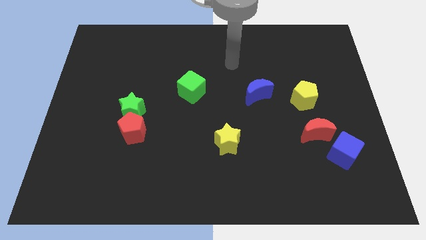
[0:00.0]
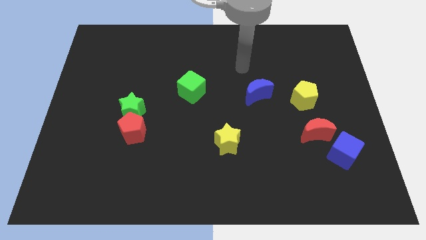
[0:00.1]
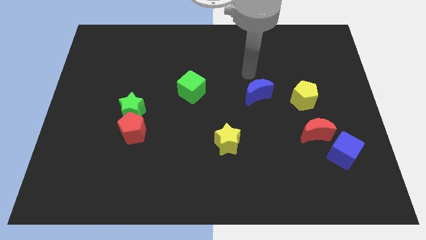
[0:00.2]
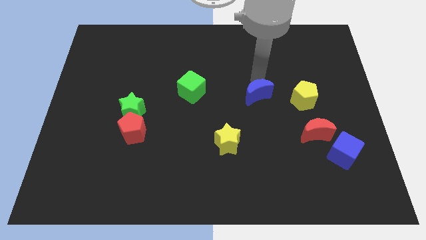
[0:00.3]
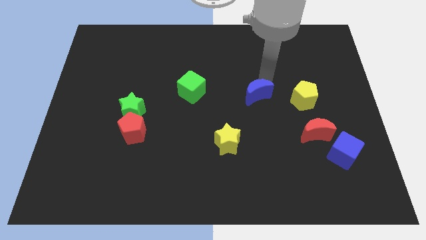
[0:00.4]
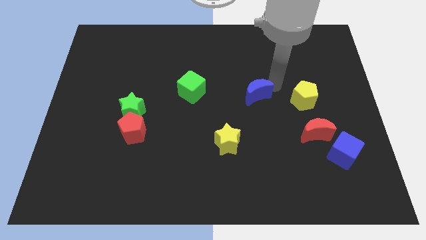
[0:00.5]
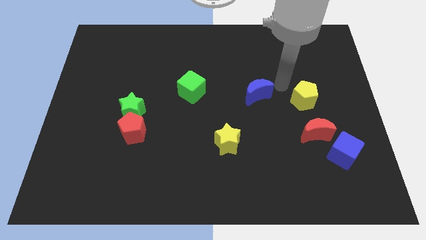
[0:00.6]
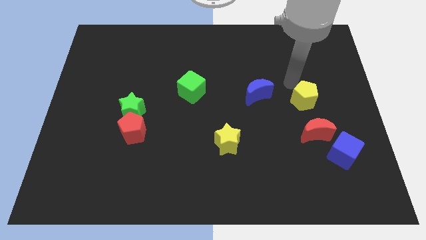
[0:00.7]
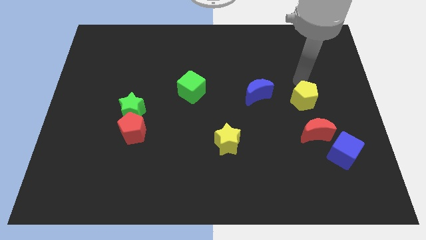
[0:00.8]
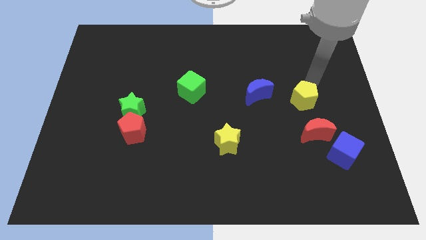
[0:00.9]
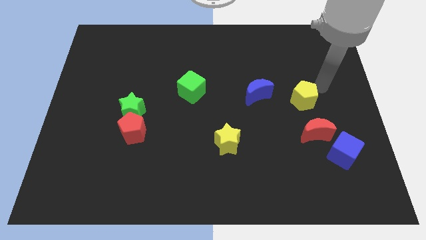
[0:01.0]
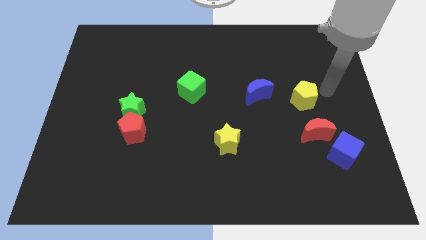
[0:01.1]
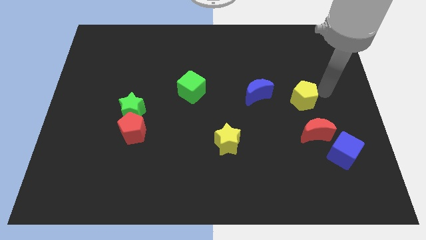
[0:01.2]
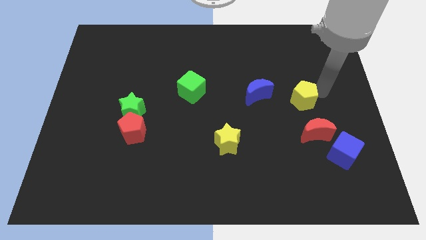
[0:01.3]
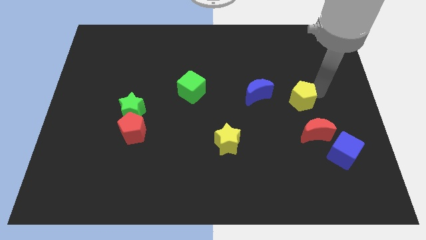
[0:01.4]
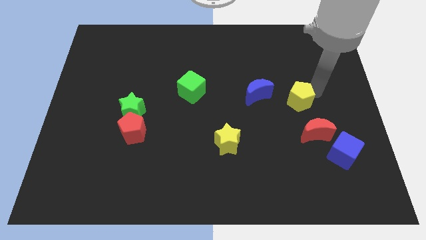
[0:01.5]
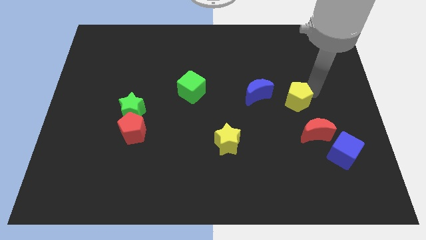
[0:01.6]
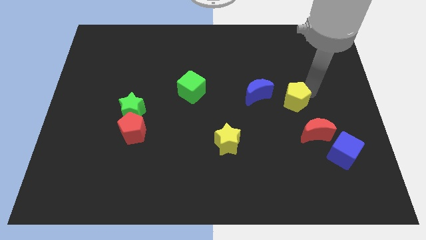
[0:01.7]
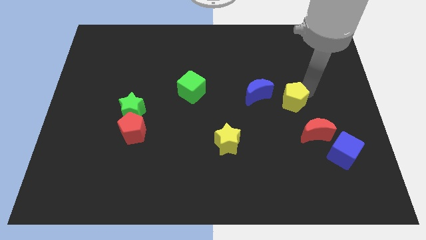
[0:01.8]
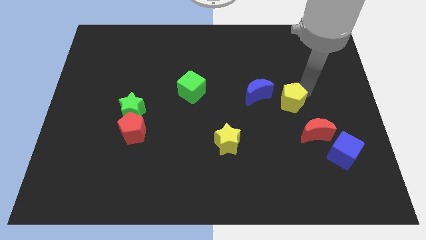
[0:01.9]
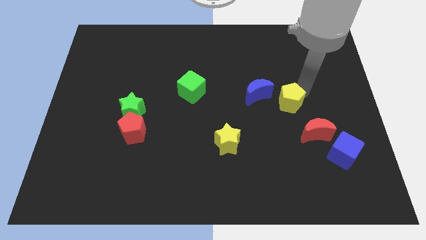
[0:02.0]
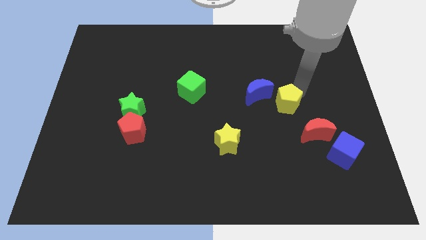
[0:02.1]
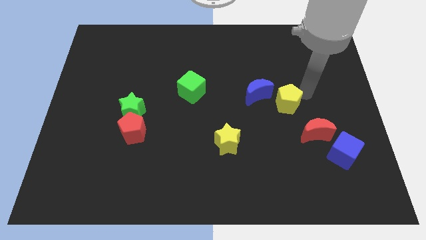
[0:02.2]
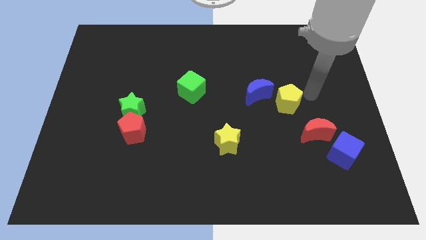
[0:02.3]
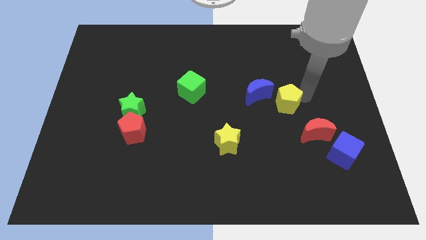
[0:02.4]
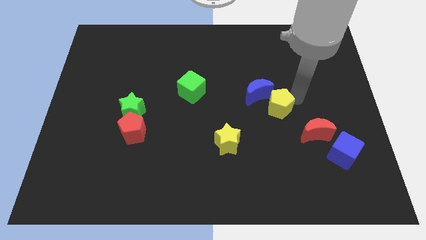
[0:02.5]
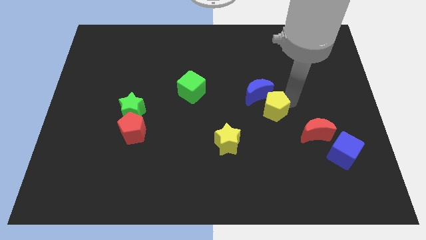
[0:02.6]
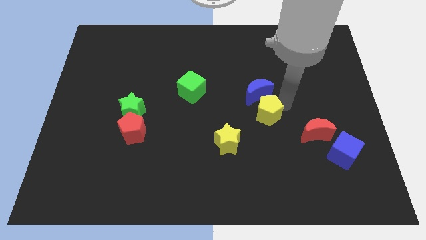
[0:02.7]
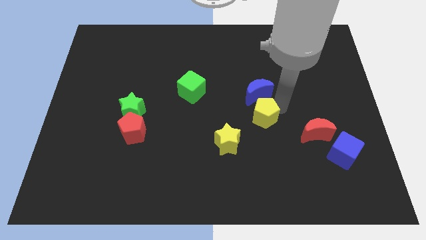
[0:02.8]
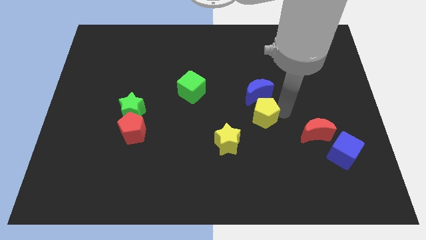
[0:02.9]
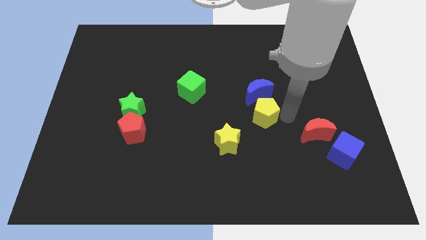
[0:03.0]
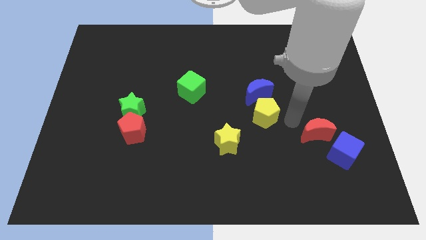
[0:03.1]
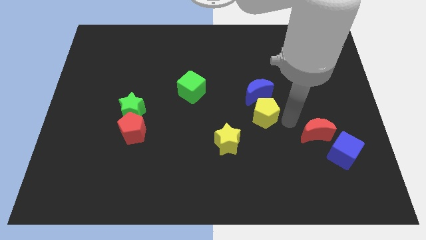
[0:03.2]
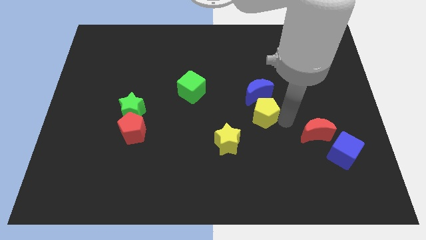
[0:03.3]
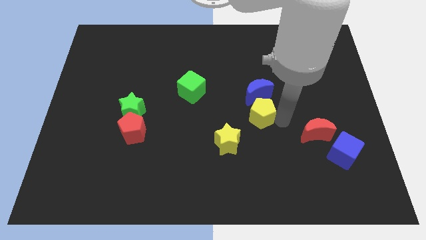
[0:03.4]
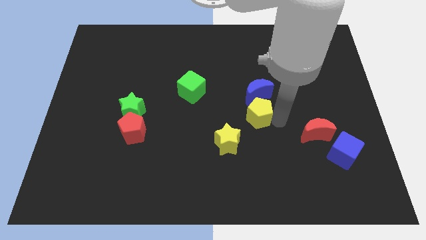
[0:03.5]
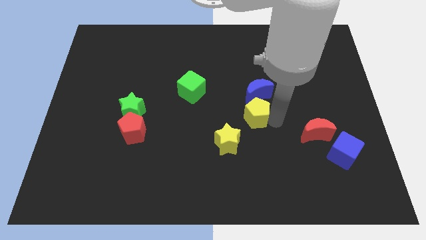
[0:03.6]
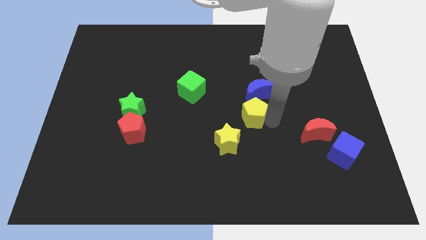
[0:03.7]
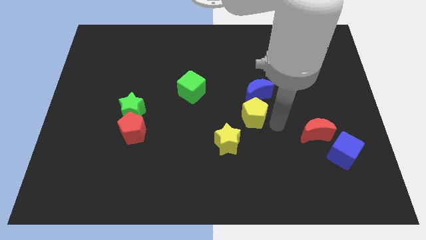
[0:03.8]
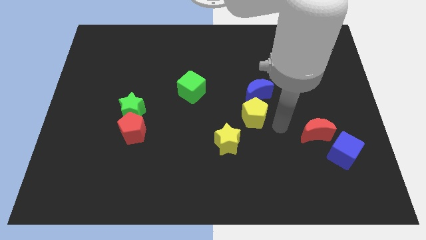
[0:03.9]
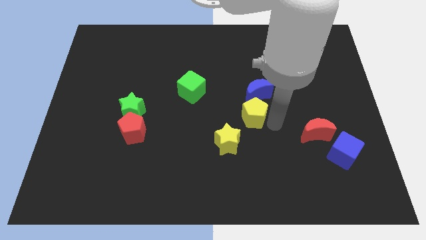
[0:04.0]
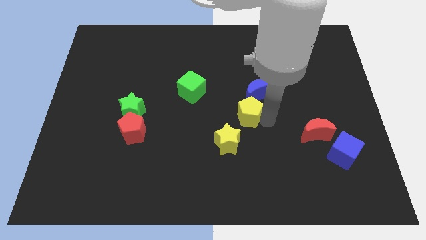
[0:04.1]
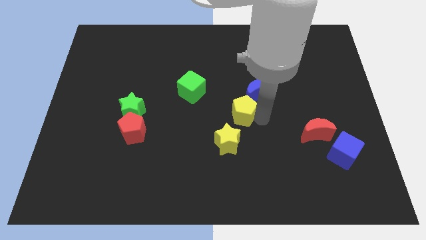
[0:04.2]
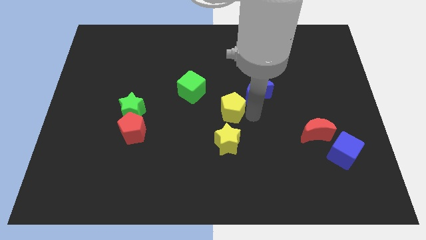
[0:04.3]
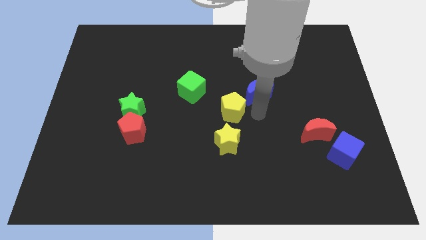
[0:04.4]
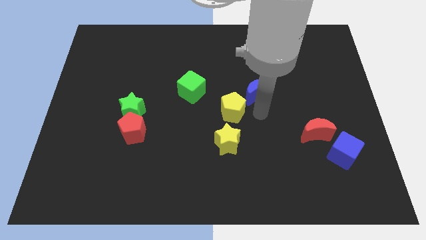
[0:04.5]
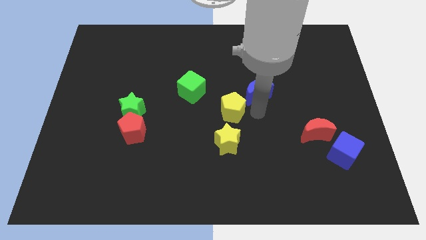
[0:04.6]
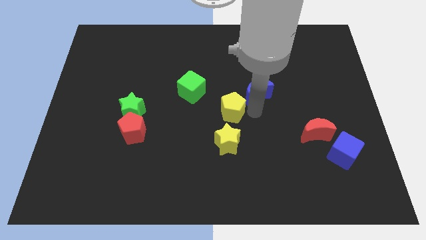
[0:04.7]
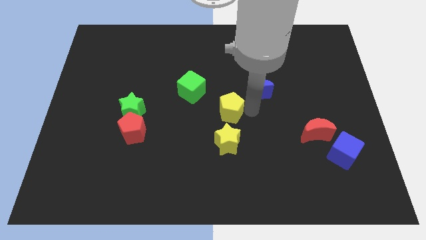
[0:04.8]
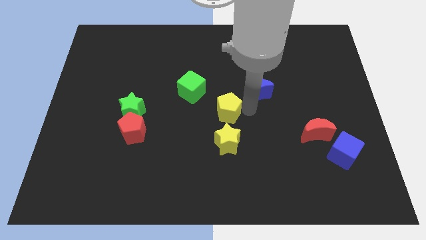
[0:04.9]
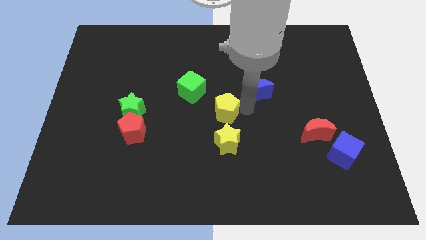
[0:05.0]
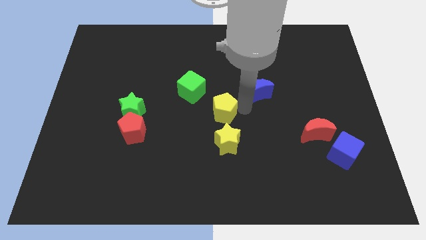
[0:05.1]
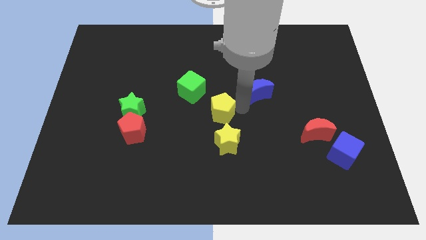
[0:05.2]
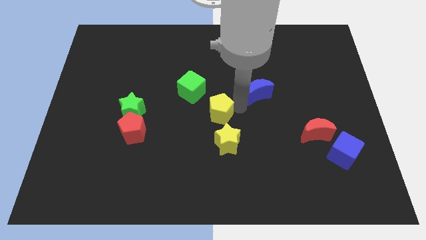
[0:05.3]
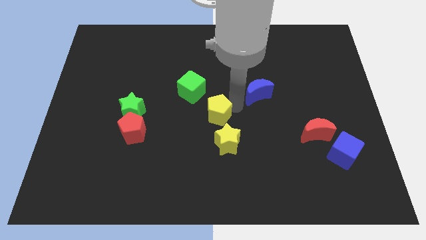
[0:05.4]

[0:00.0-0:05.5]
move the yellow pentagon left

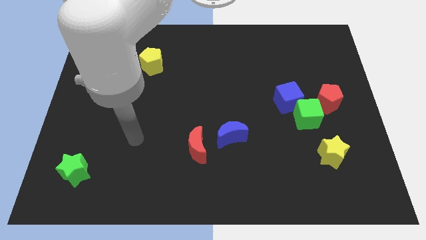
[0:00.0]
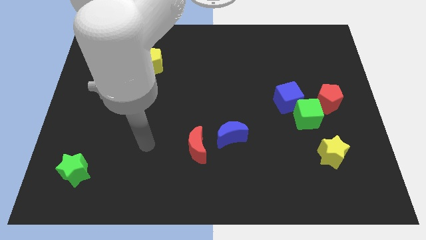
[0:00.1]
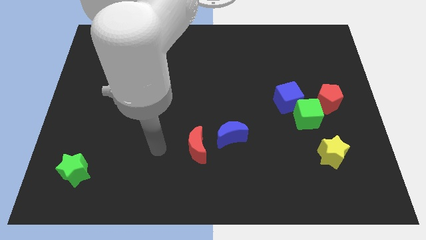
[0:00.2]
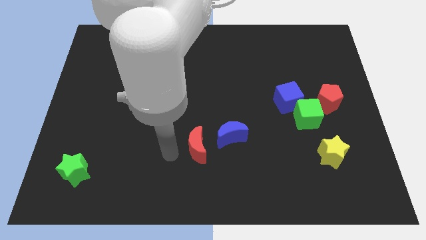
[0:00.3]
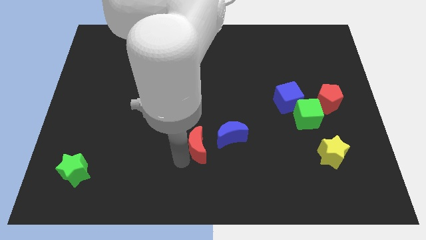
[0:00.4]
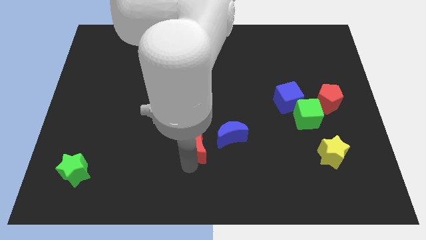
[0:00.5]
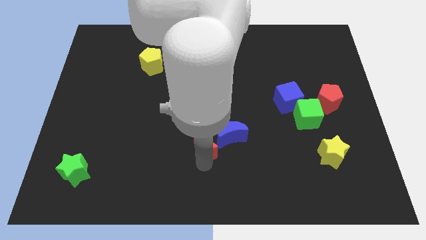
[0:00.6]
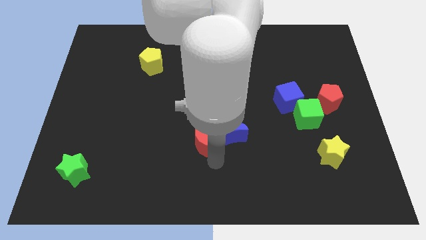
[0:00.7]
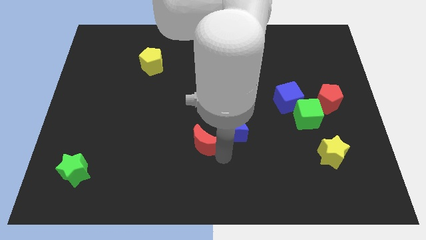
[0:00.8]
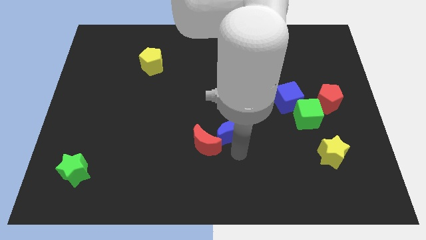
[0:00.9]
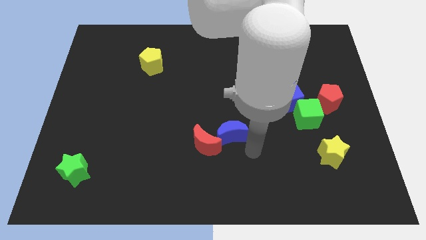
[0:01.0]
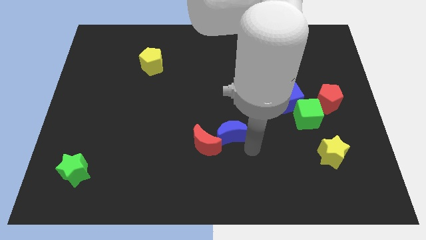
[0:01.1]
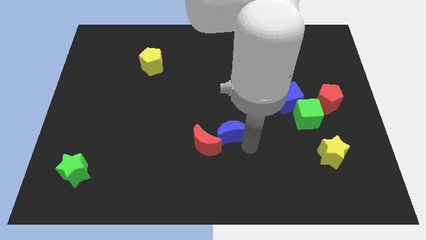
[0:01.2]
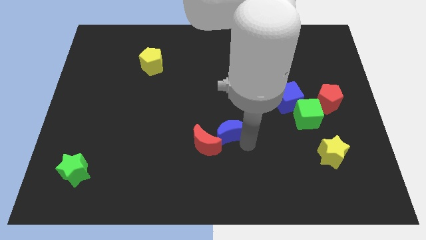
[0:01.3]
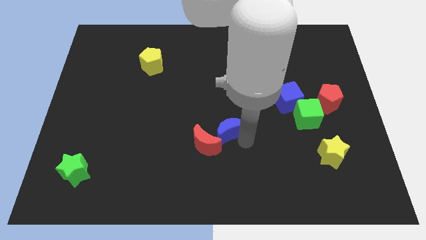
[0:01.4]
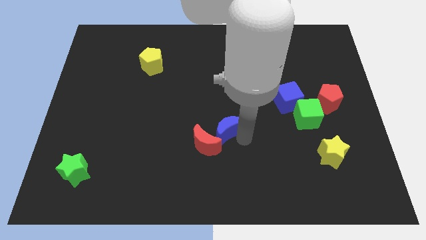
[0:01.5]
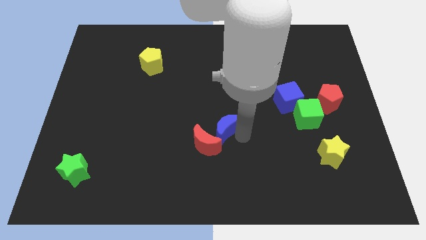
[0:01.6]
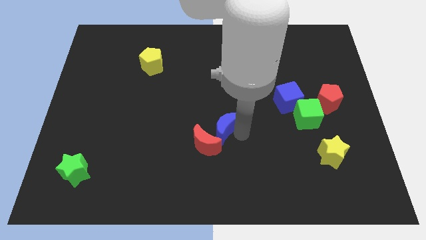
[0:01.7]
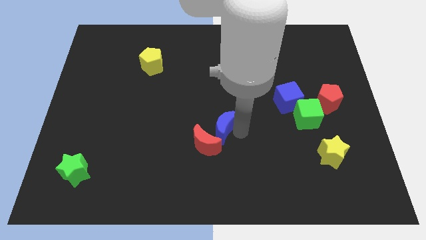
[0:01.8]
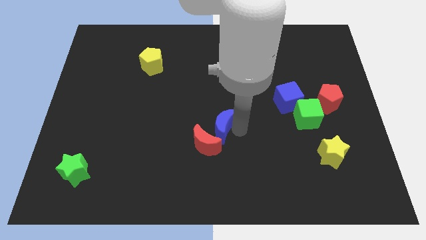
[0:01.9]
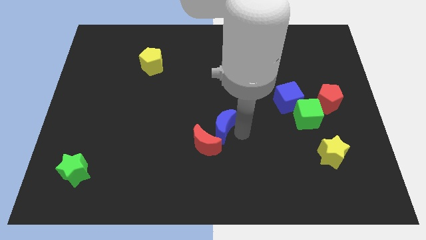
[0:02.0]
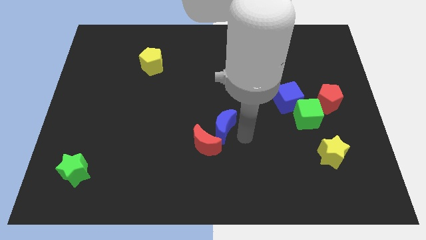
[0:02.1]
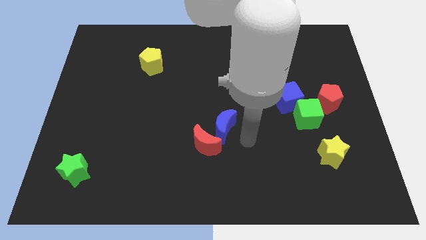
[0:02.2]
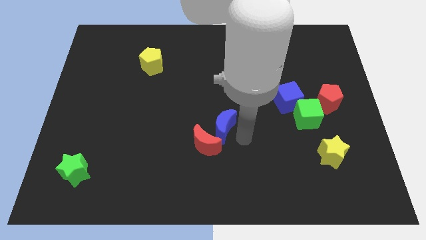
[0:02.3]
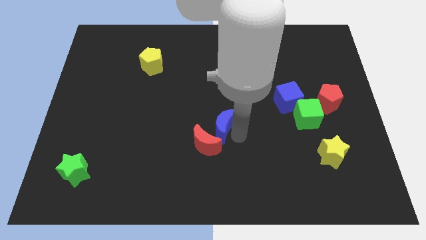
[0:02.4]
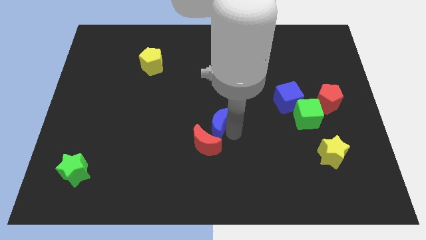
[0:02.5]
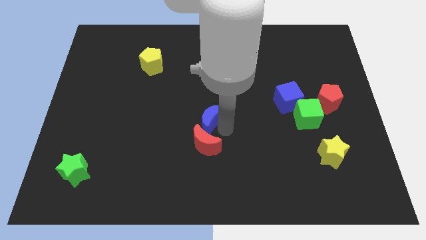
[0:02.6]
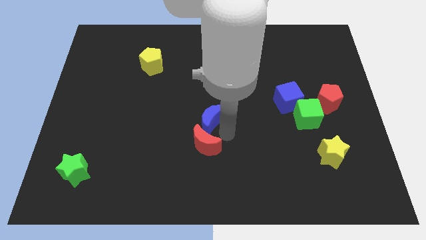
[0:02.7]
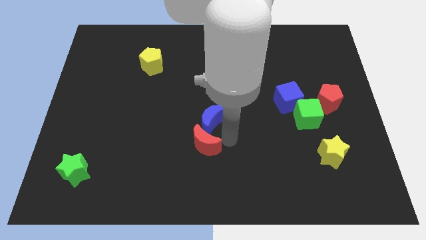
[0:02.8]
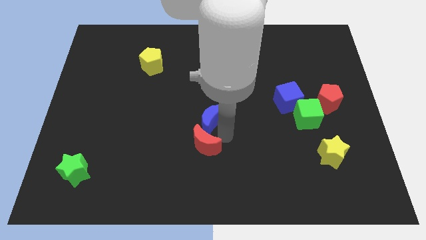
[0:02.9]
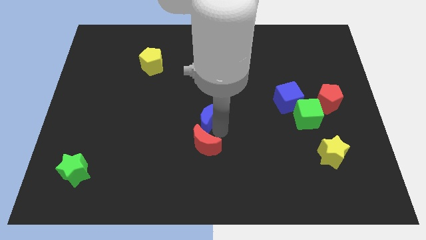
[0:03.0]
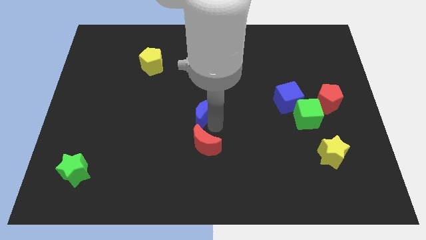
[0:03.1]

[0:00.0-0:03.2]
slightly slide the blue moon diagonally upwards and left
